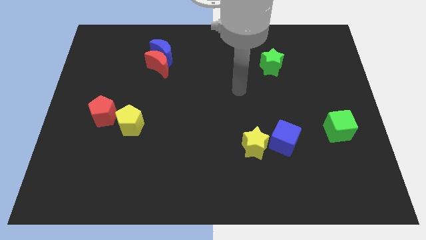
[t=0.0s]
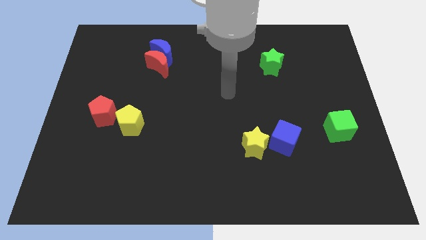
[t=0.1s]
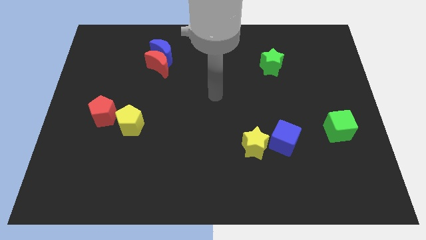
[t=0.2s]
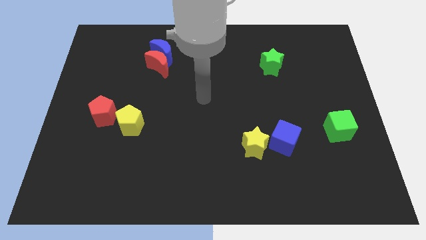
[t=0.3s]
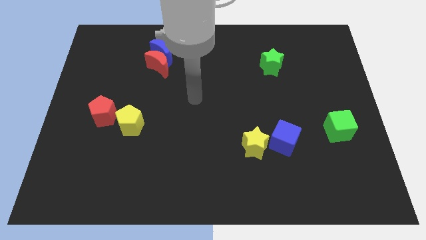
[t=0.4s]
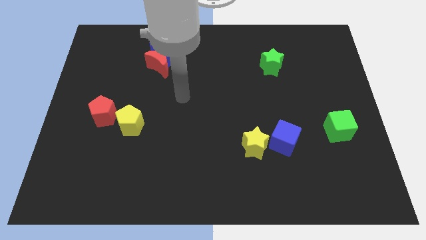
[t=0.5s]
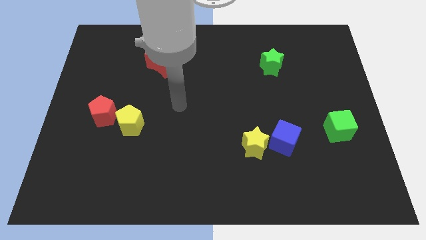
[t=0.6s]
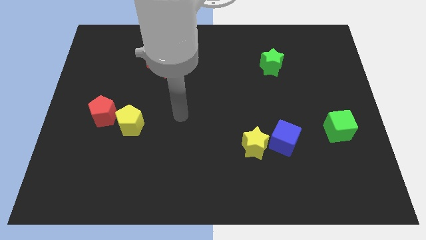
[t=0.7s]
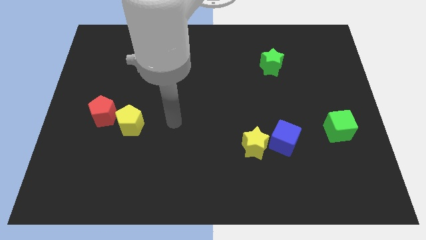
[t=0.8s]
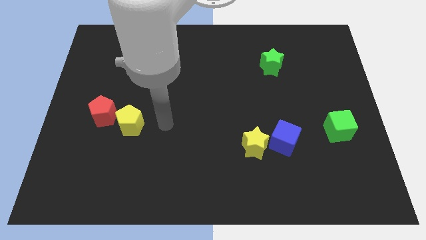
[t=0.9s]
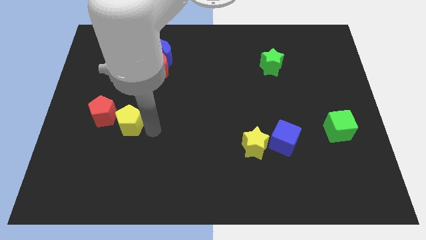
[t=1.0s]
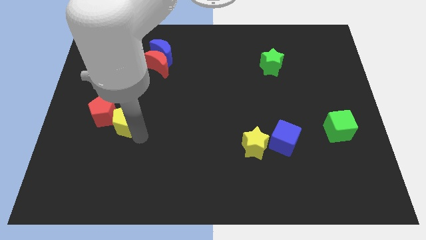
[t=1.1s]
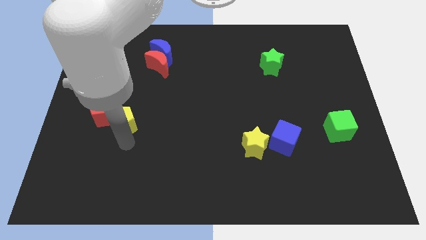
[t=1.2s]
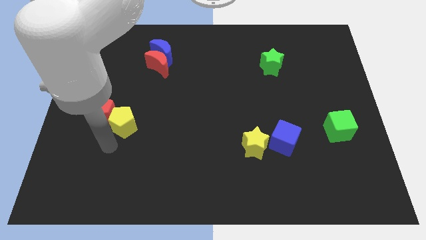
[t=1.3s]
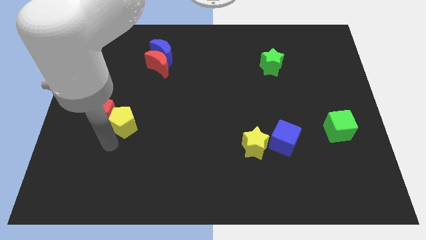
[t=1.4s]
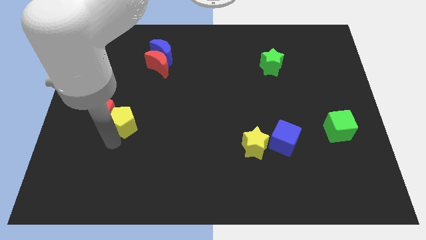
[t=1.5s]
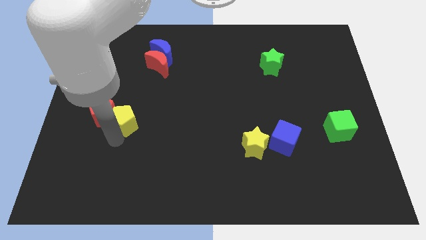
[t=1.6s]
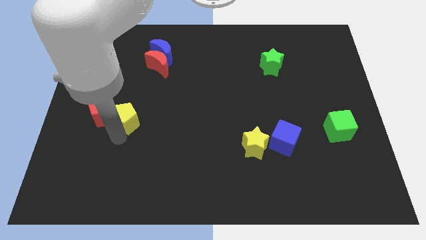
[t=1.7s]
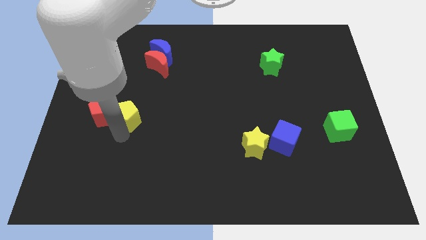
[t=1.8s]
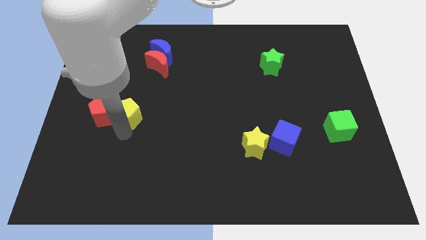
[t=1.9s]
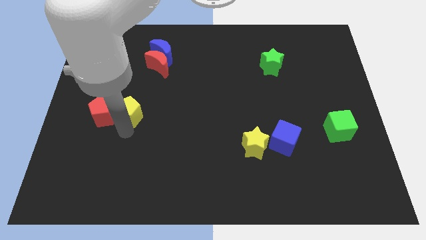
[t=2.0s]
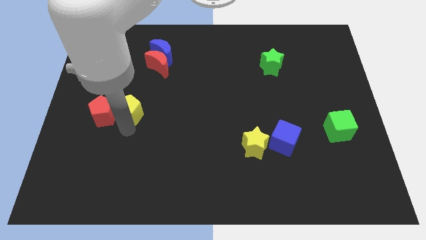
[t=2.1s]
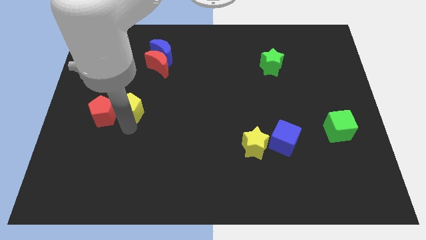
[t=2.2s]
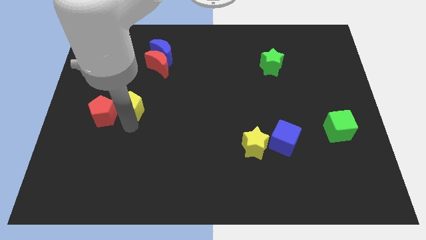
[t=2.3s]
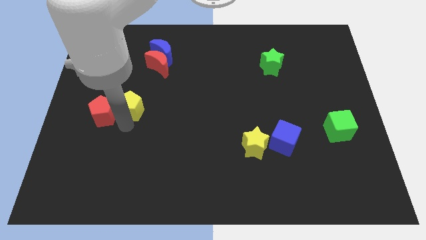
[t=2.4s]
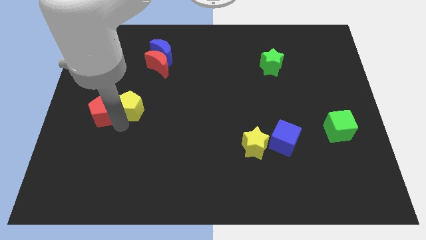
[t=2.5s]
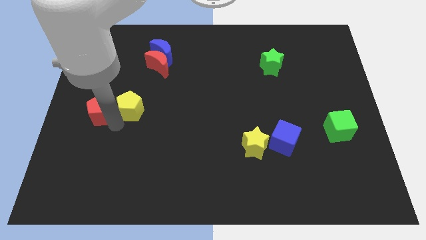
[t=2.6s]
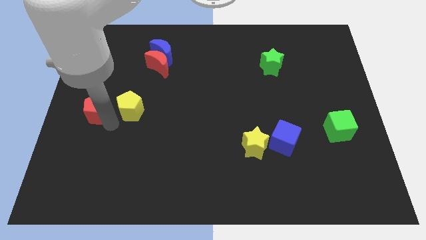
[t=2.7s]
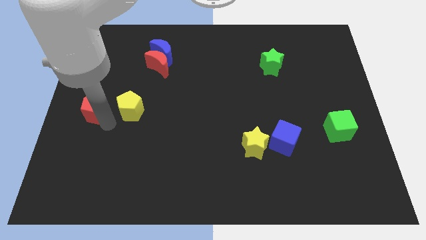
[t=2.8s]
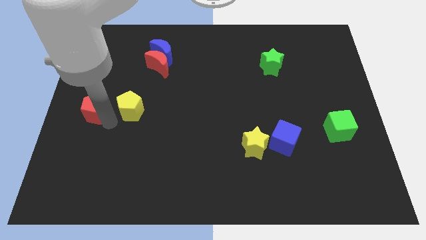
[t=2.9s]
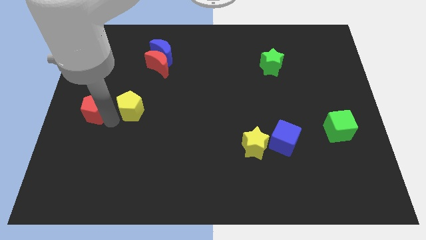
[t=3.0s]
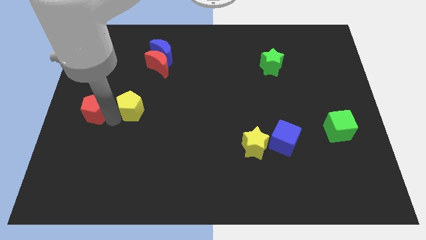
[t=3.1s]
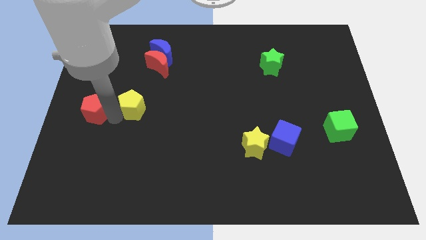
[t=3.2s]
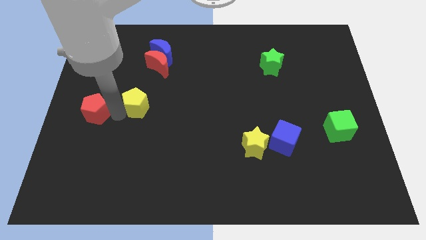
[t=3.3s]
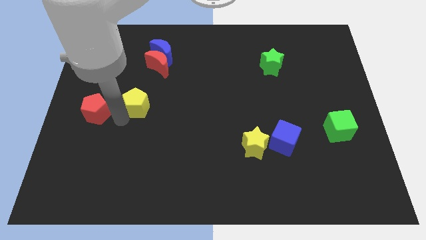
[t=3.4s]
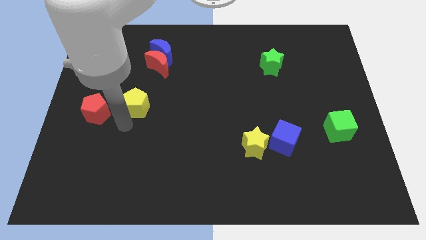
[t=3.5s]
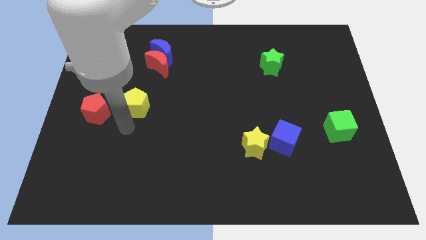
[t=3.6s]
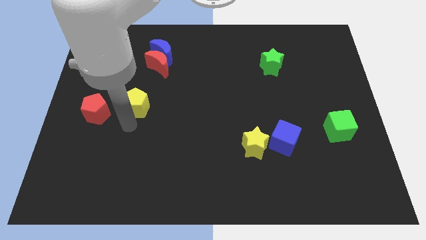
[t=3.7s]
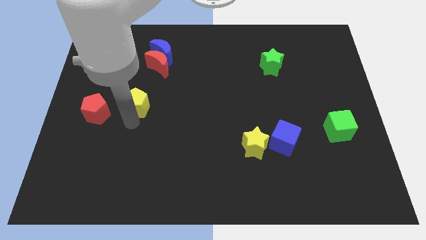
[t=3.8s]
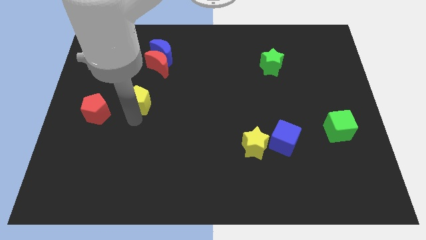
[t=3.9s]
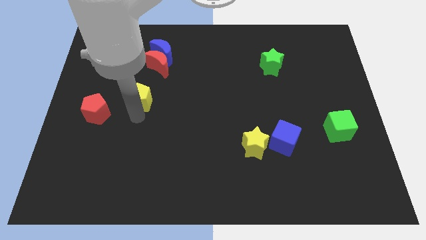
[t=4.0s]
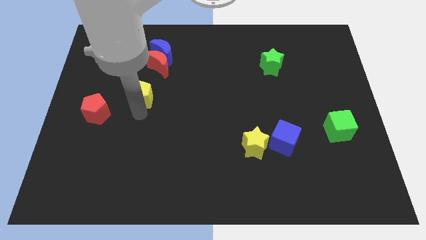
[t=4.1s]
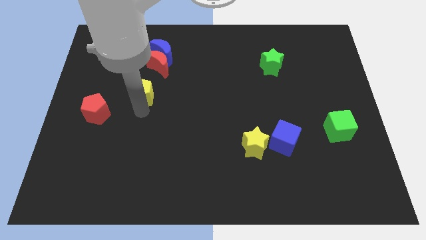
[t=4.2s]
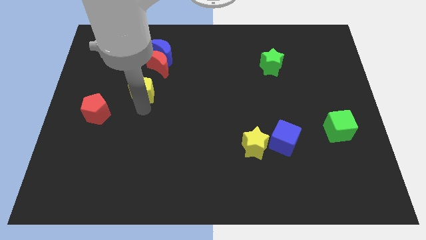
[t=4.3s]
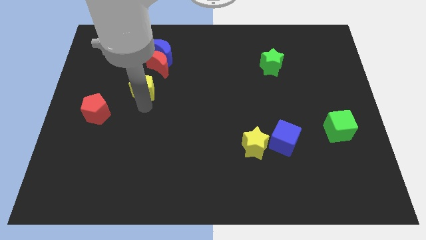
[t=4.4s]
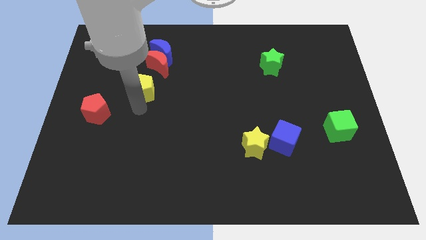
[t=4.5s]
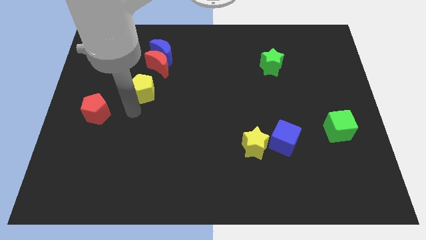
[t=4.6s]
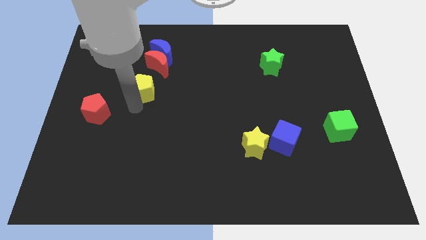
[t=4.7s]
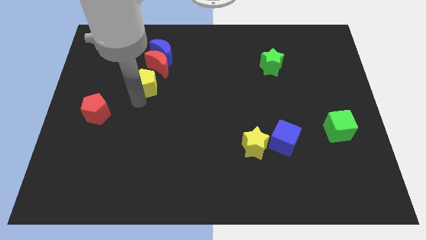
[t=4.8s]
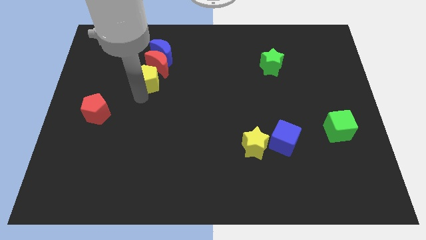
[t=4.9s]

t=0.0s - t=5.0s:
push the yellow pentagon to the red moon

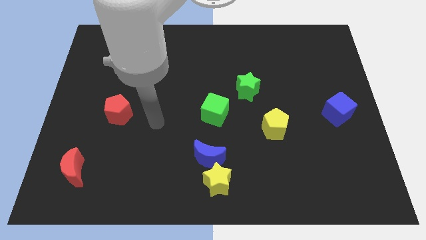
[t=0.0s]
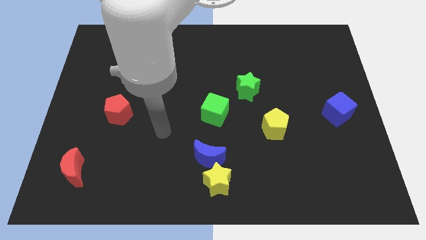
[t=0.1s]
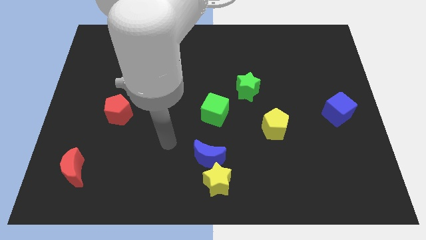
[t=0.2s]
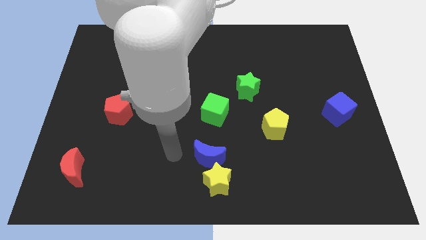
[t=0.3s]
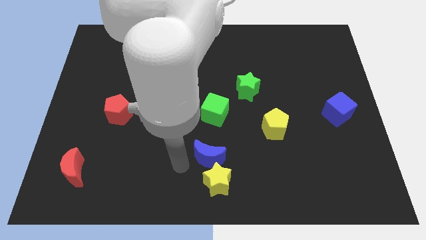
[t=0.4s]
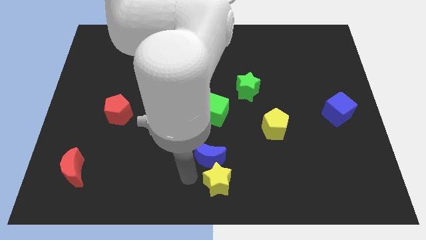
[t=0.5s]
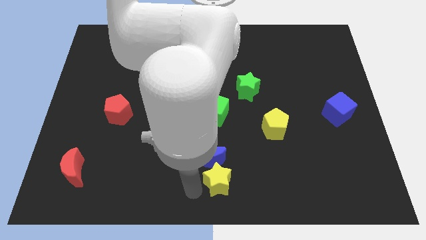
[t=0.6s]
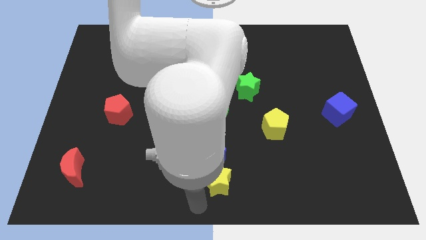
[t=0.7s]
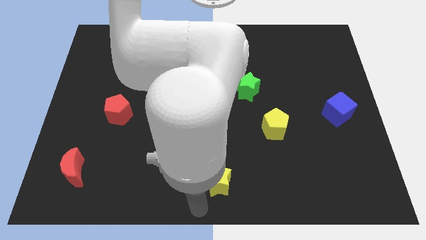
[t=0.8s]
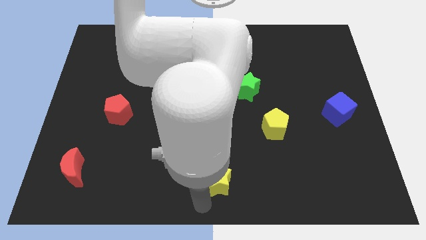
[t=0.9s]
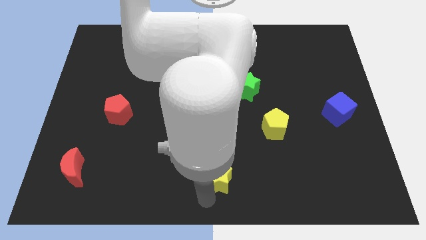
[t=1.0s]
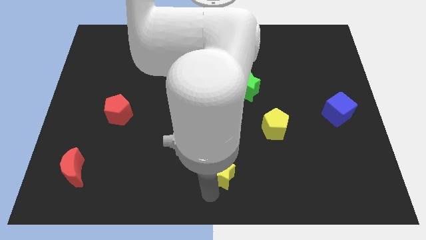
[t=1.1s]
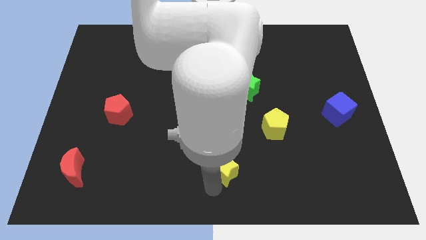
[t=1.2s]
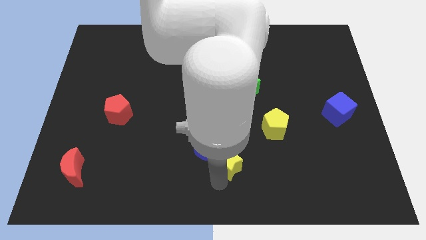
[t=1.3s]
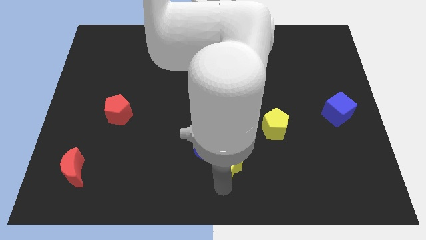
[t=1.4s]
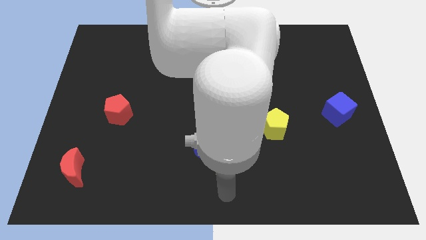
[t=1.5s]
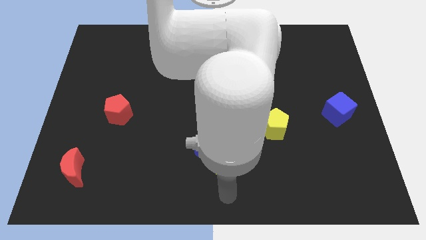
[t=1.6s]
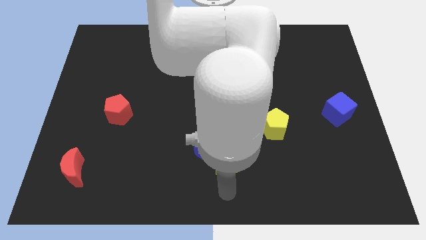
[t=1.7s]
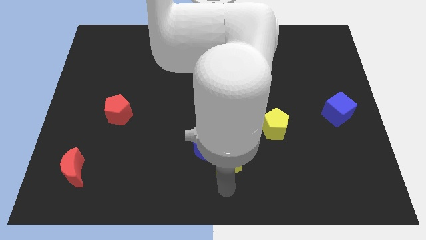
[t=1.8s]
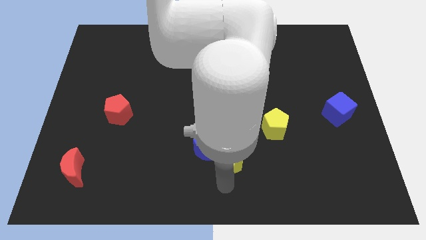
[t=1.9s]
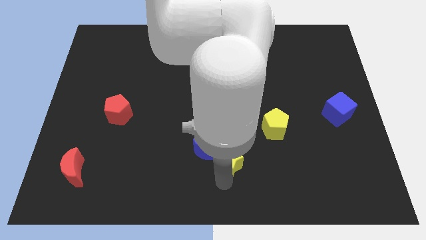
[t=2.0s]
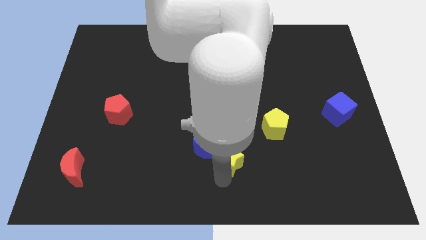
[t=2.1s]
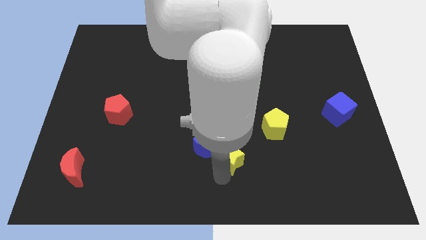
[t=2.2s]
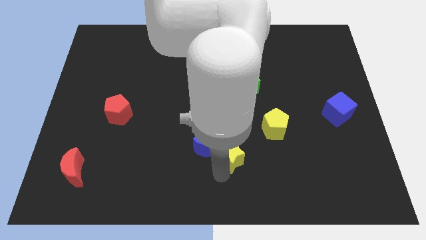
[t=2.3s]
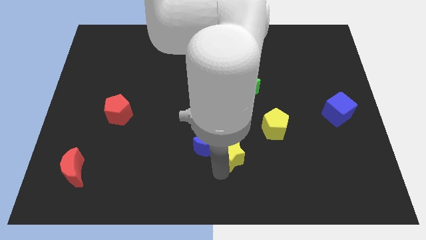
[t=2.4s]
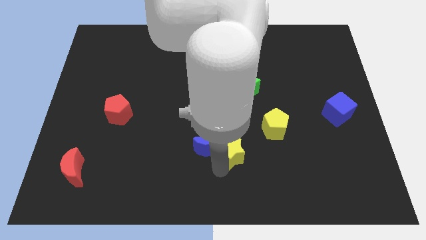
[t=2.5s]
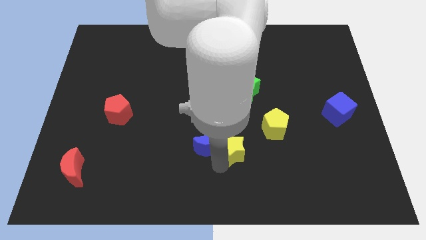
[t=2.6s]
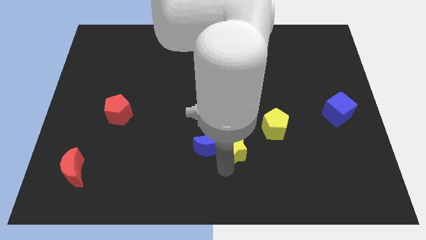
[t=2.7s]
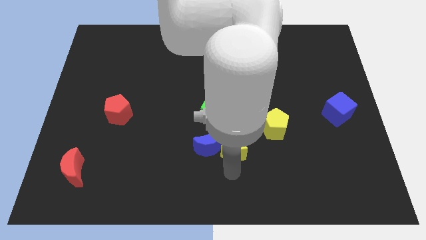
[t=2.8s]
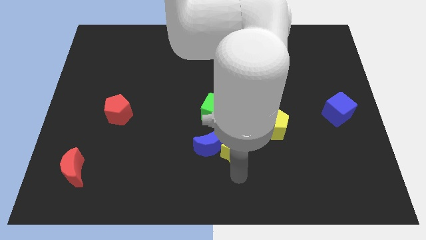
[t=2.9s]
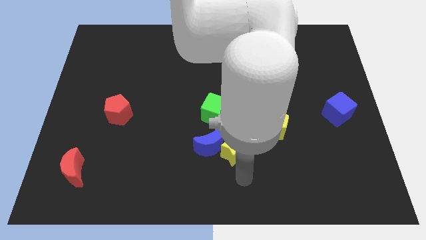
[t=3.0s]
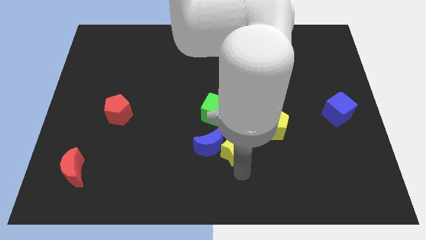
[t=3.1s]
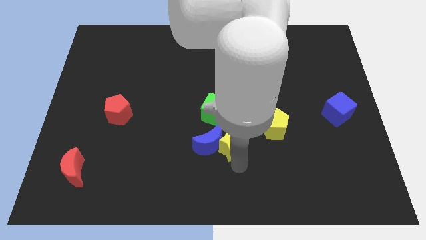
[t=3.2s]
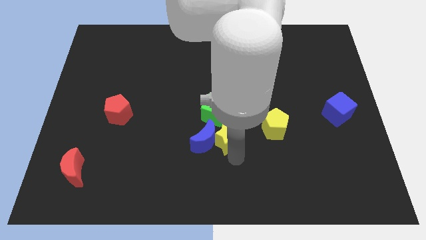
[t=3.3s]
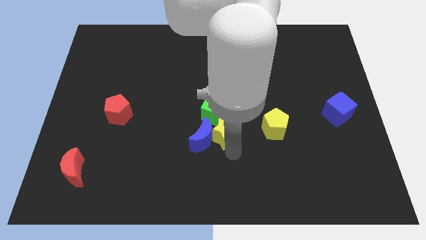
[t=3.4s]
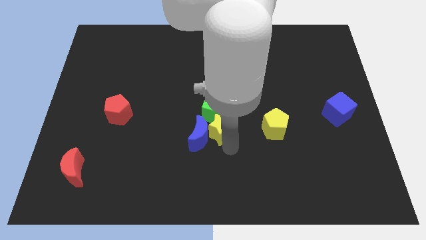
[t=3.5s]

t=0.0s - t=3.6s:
slide the yellow star next to the green cube
